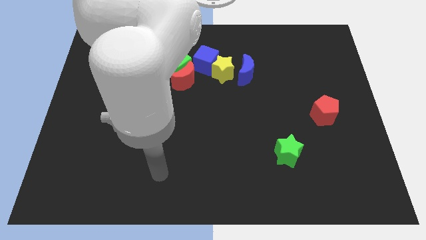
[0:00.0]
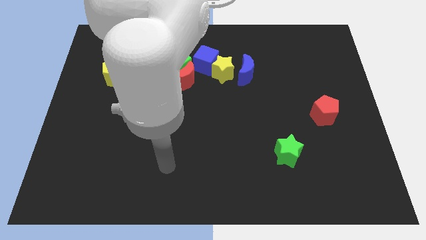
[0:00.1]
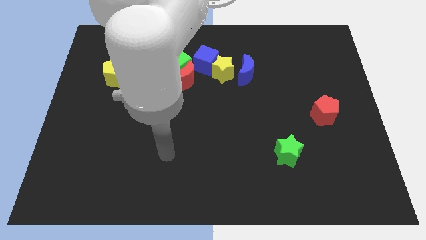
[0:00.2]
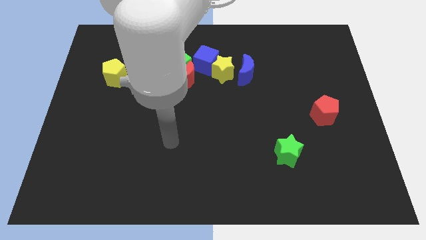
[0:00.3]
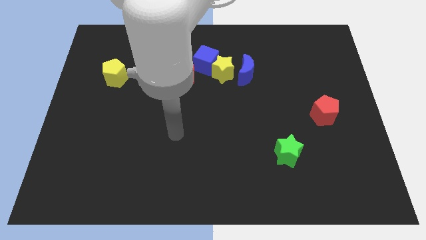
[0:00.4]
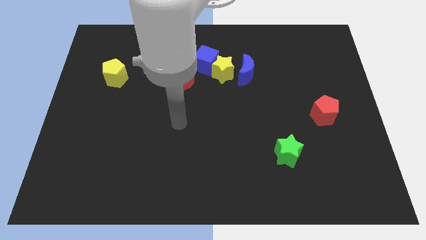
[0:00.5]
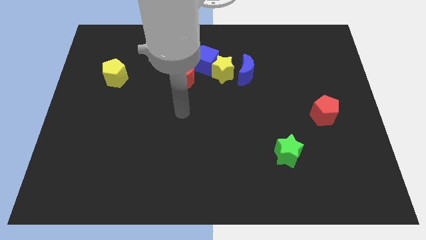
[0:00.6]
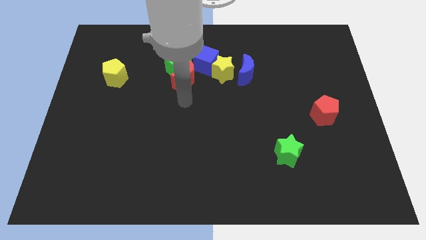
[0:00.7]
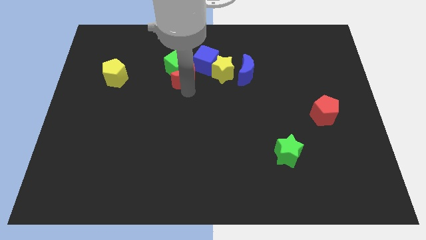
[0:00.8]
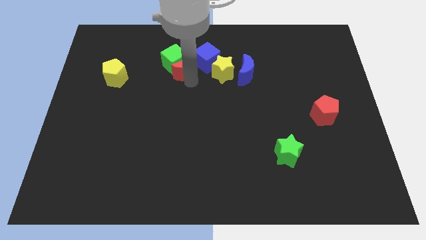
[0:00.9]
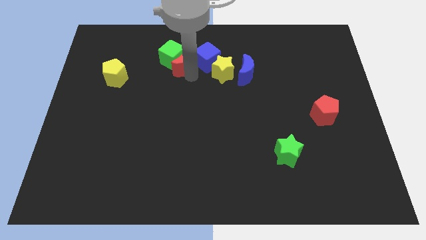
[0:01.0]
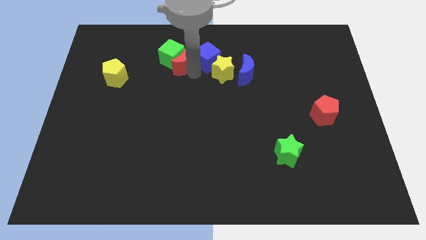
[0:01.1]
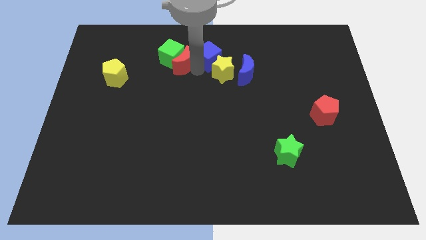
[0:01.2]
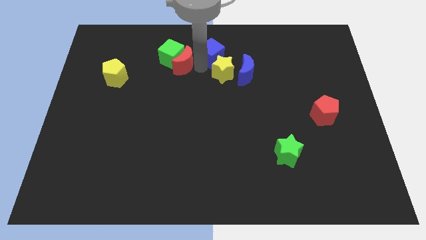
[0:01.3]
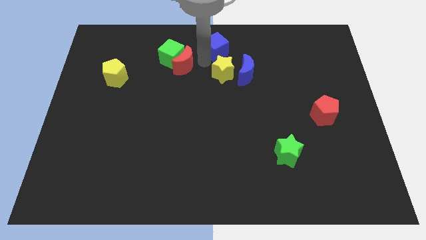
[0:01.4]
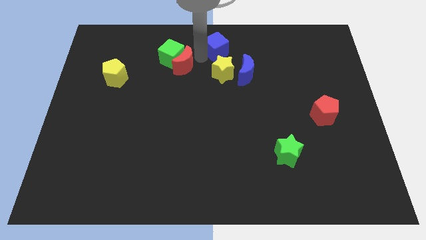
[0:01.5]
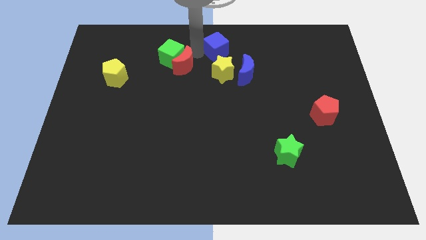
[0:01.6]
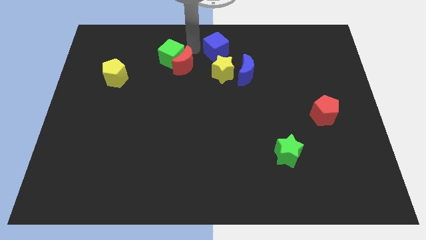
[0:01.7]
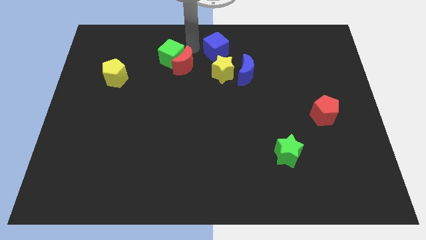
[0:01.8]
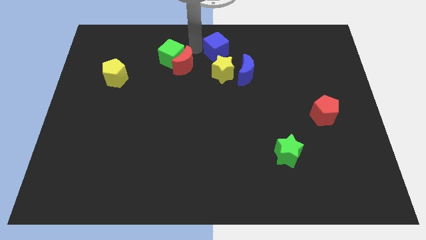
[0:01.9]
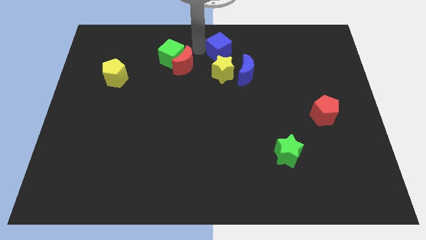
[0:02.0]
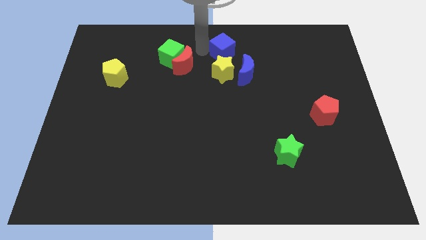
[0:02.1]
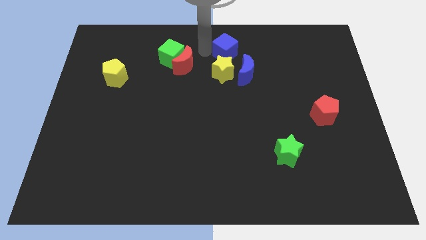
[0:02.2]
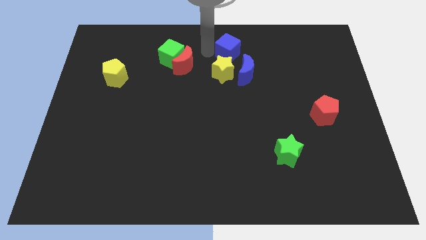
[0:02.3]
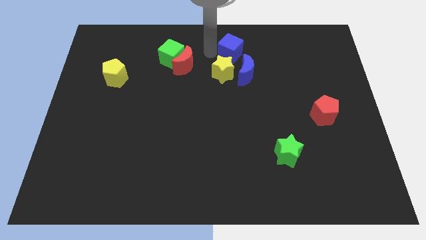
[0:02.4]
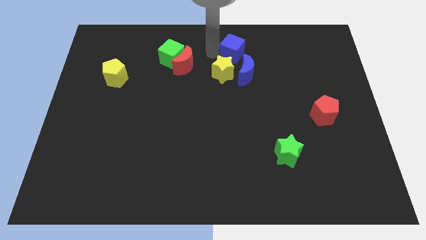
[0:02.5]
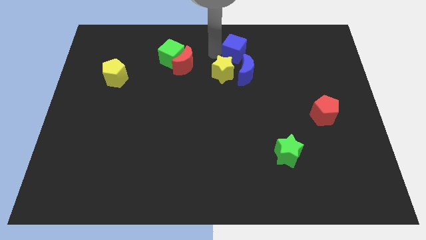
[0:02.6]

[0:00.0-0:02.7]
slide the blue cube a little right

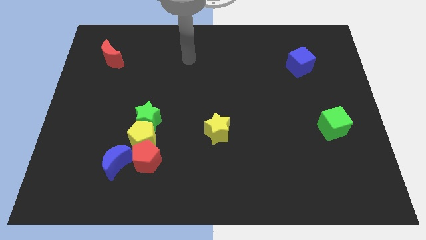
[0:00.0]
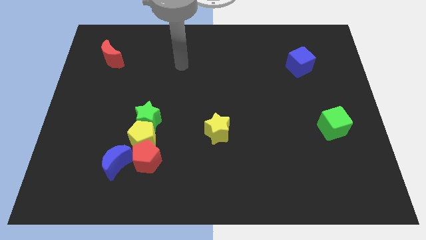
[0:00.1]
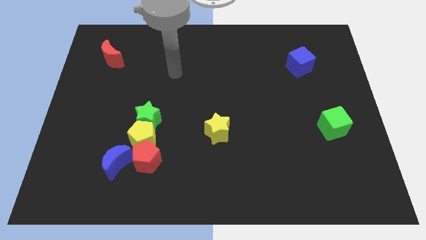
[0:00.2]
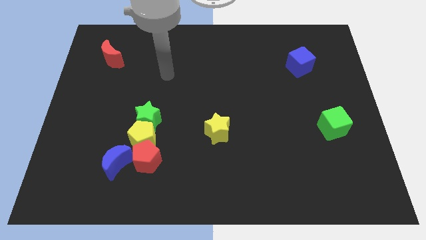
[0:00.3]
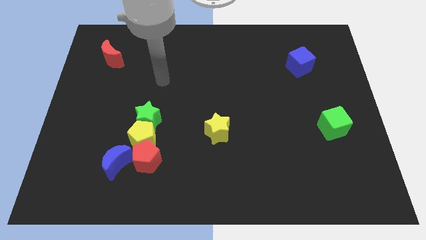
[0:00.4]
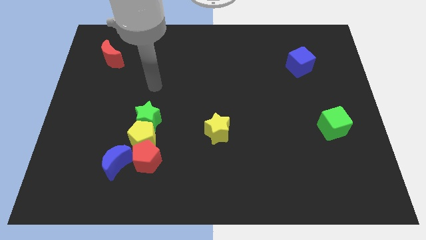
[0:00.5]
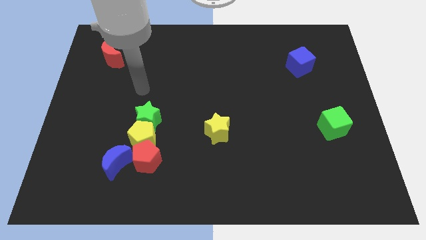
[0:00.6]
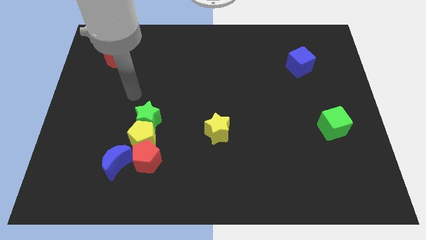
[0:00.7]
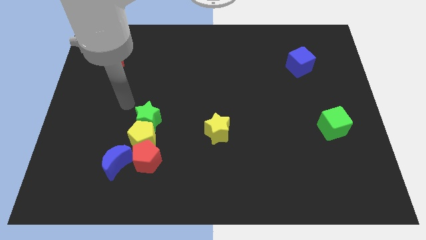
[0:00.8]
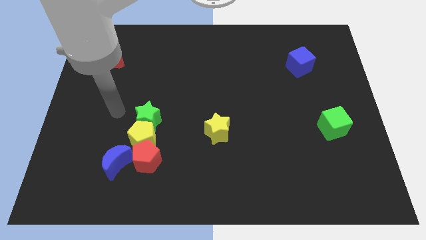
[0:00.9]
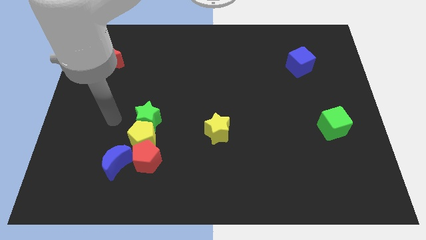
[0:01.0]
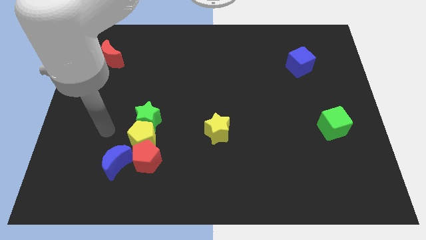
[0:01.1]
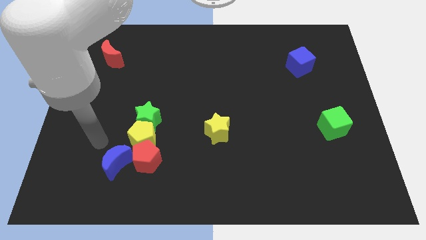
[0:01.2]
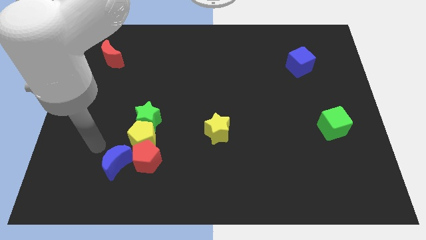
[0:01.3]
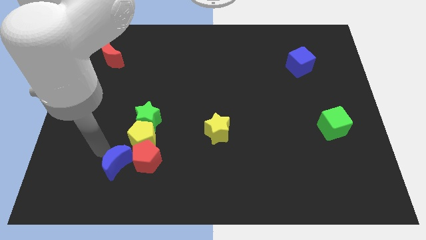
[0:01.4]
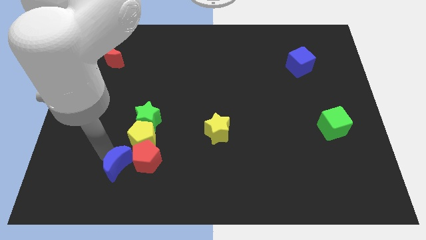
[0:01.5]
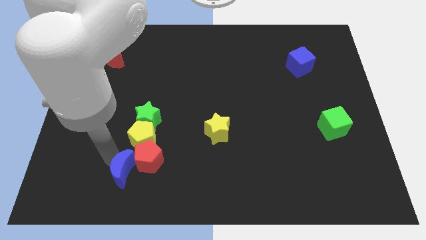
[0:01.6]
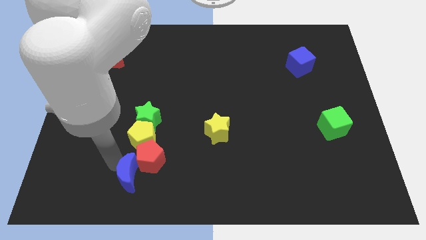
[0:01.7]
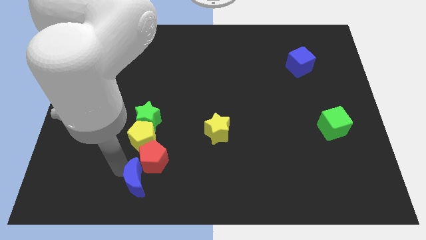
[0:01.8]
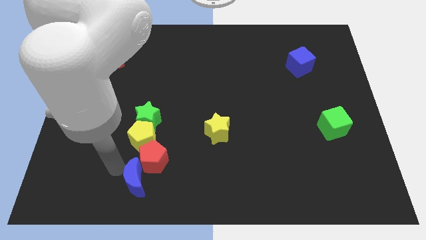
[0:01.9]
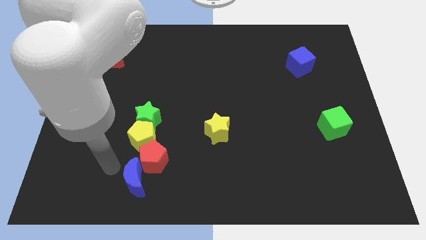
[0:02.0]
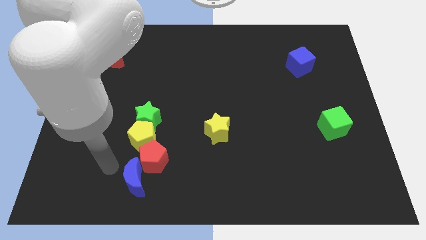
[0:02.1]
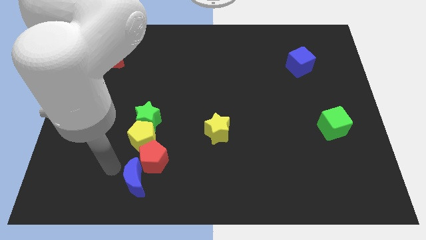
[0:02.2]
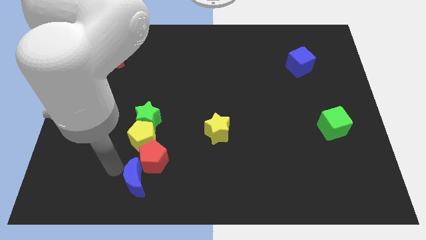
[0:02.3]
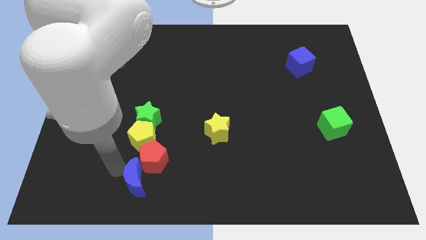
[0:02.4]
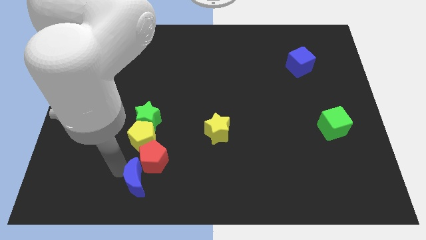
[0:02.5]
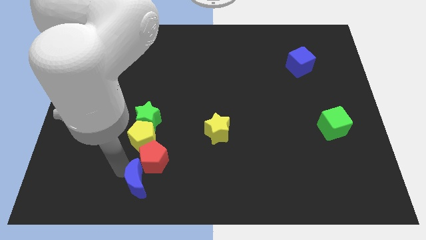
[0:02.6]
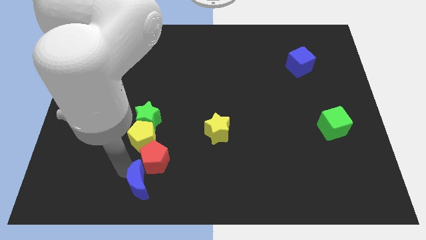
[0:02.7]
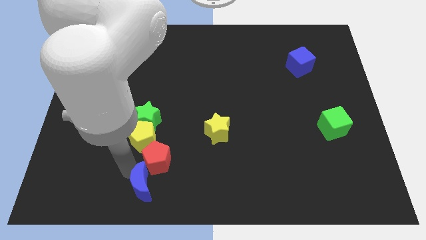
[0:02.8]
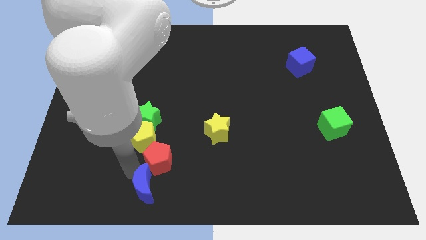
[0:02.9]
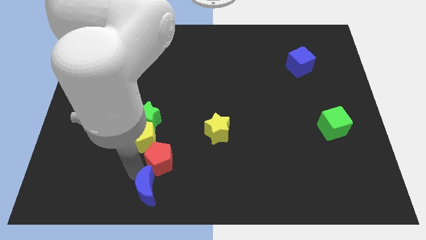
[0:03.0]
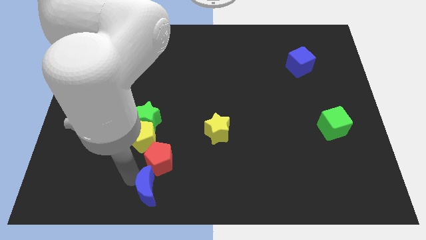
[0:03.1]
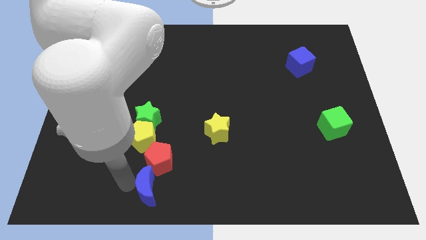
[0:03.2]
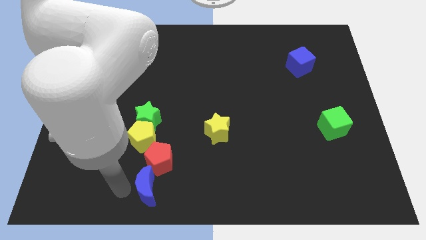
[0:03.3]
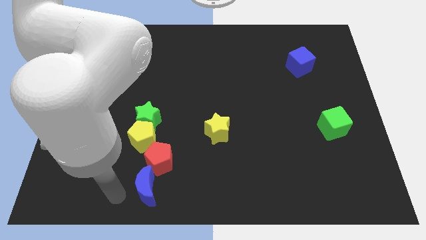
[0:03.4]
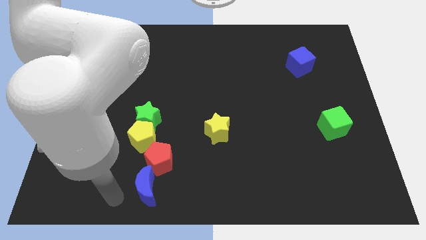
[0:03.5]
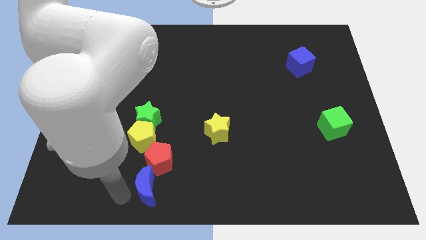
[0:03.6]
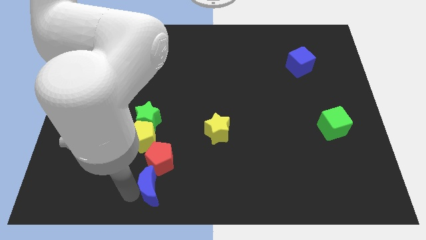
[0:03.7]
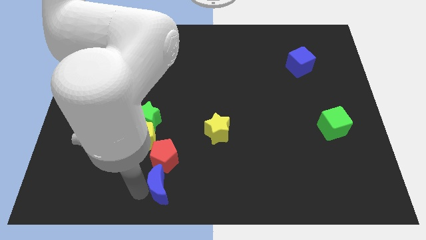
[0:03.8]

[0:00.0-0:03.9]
push the blue moon a little to the right

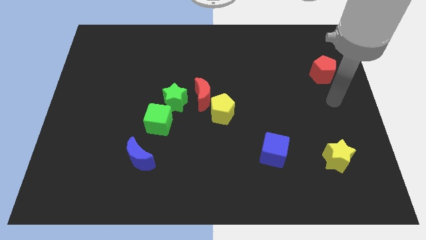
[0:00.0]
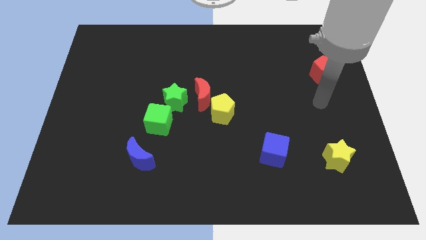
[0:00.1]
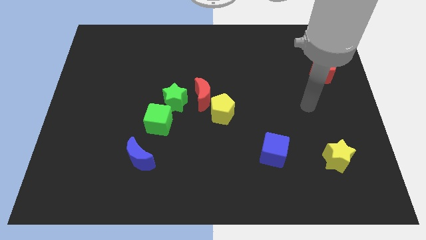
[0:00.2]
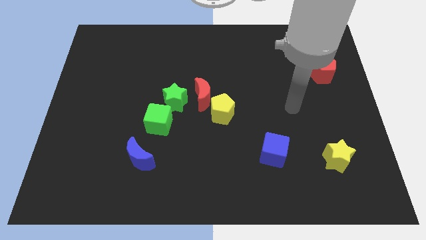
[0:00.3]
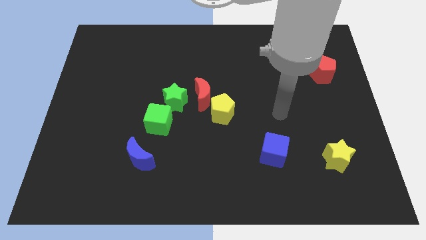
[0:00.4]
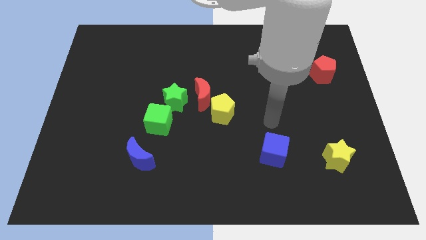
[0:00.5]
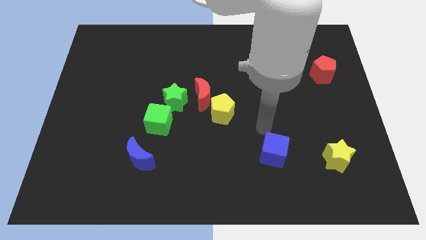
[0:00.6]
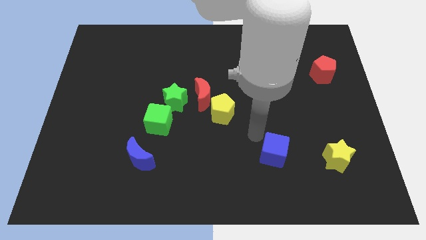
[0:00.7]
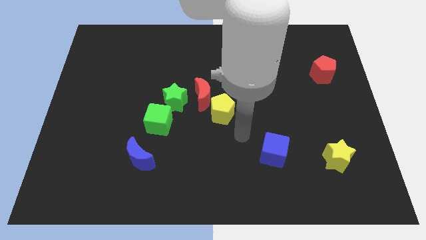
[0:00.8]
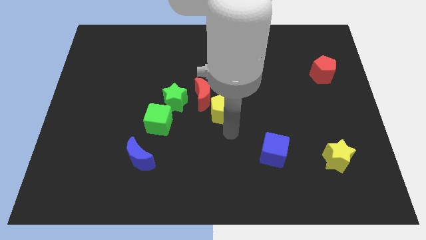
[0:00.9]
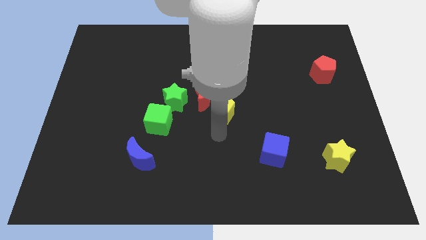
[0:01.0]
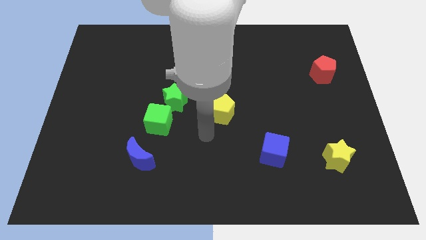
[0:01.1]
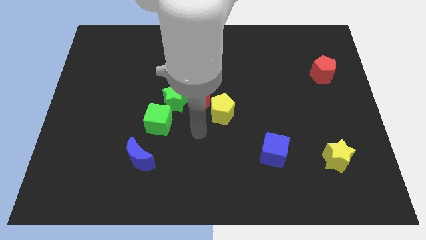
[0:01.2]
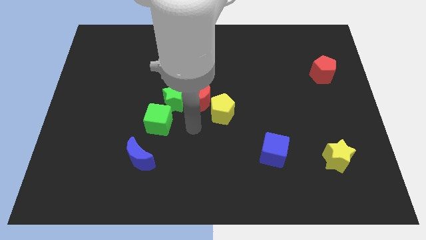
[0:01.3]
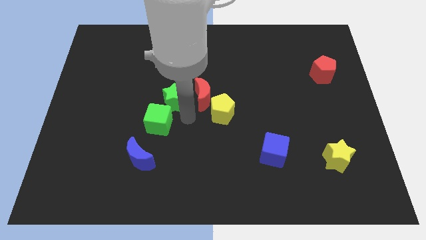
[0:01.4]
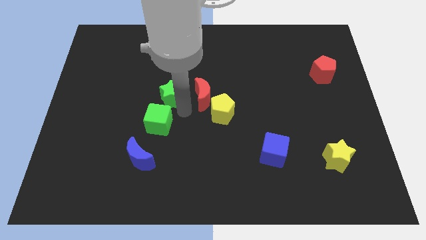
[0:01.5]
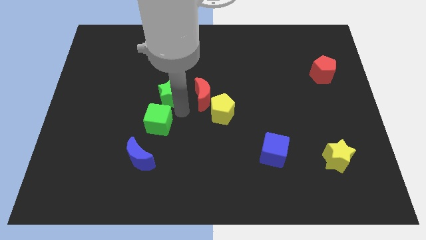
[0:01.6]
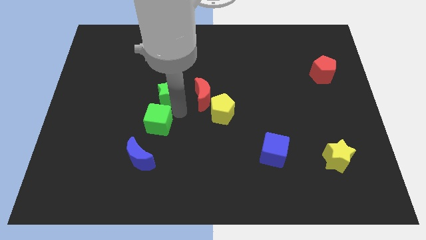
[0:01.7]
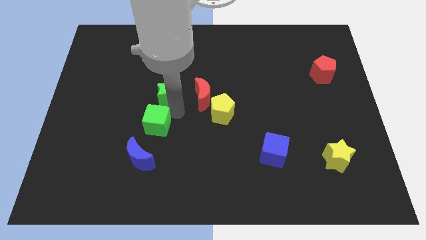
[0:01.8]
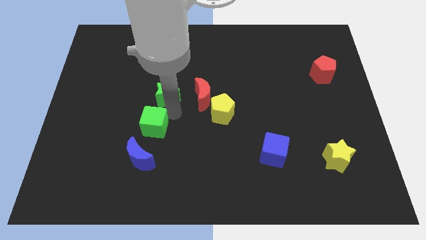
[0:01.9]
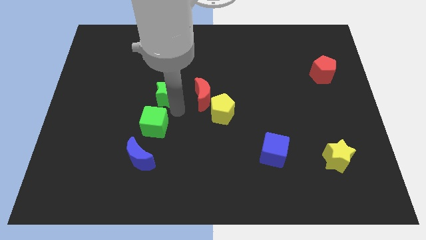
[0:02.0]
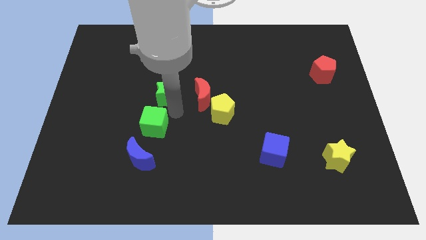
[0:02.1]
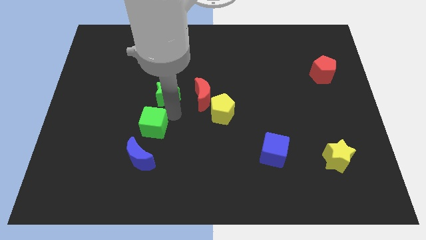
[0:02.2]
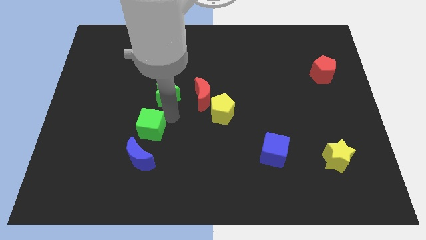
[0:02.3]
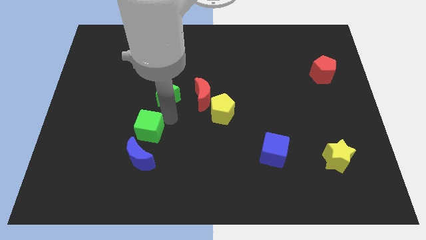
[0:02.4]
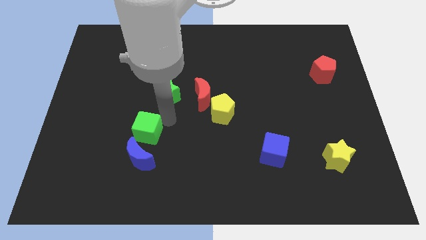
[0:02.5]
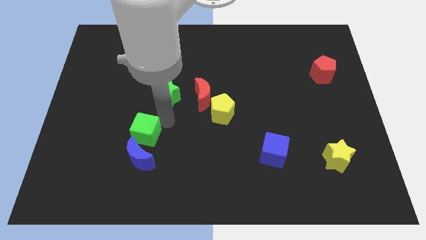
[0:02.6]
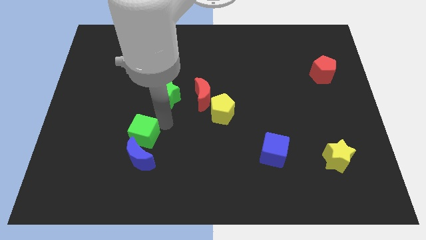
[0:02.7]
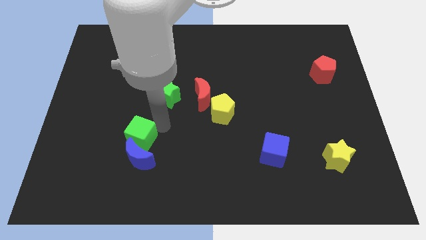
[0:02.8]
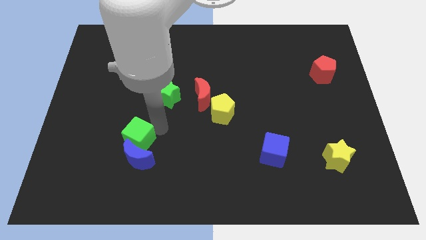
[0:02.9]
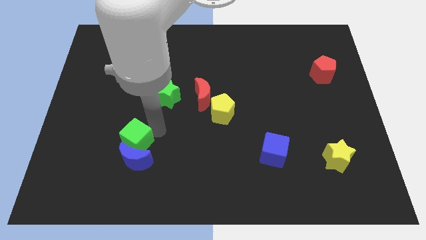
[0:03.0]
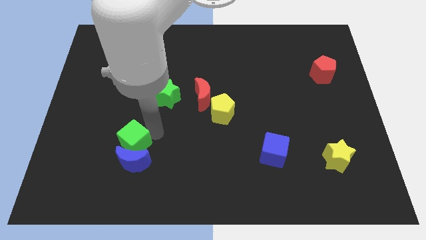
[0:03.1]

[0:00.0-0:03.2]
slightly slide the green cube down and left
